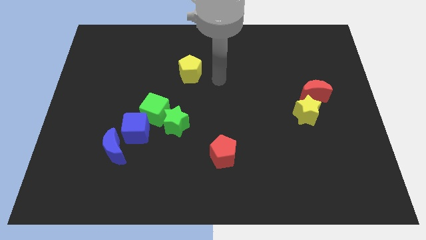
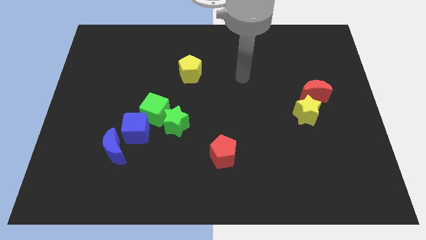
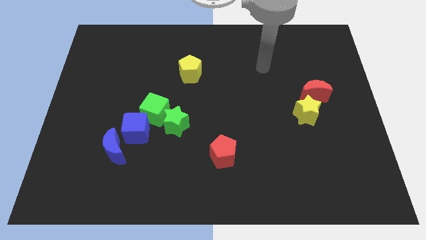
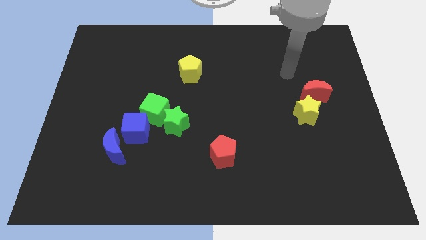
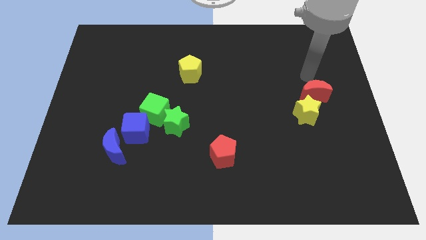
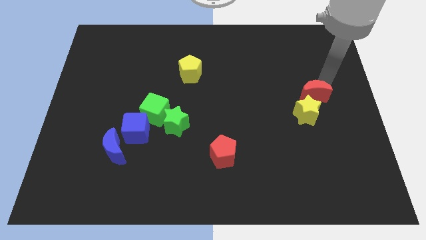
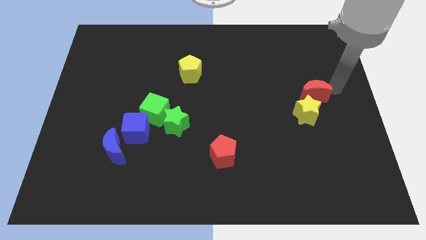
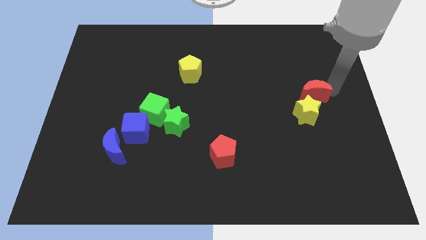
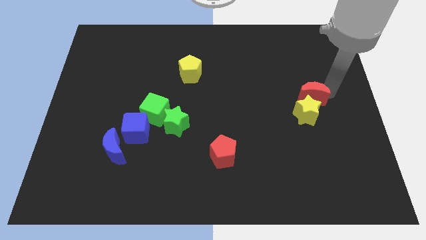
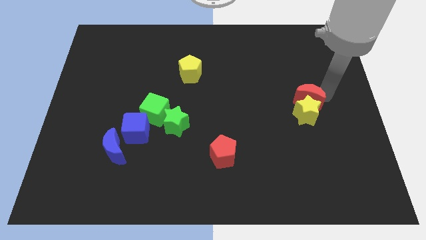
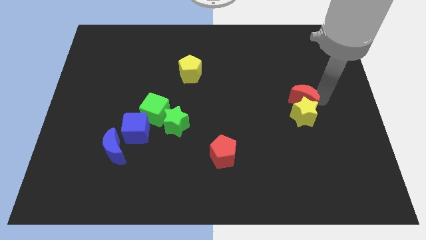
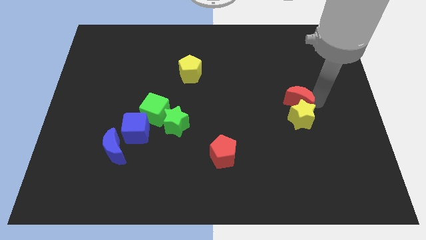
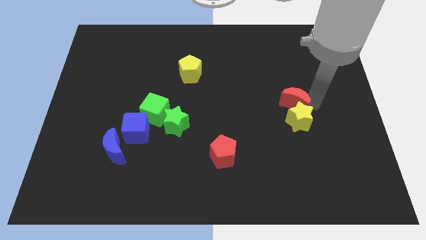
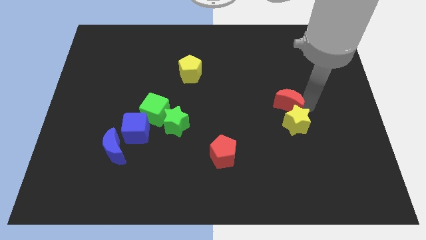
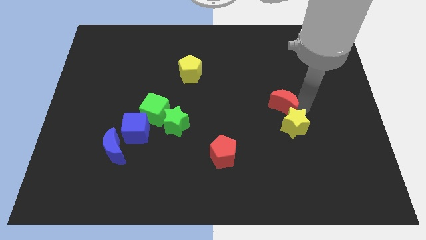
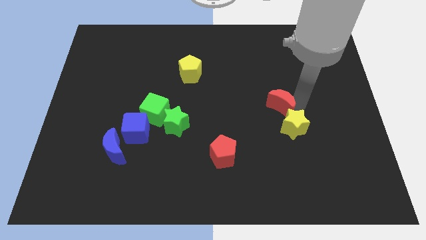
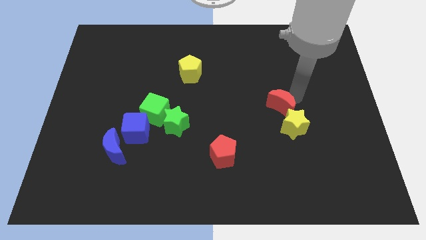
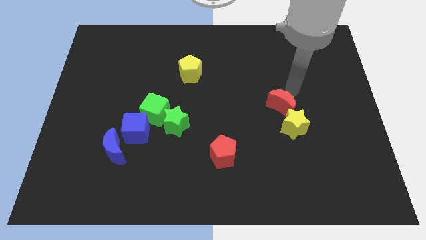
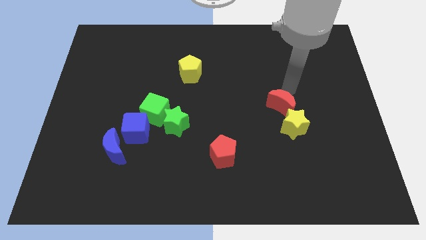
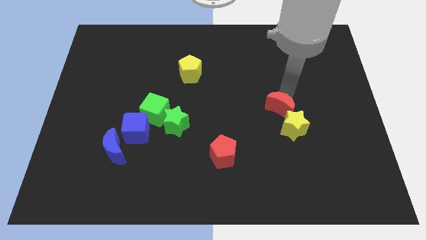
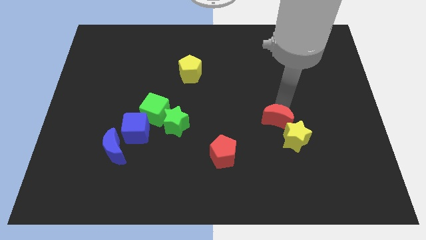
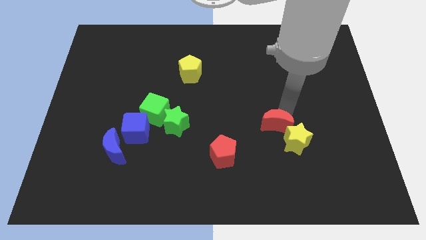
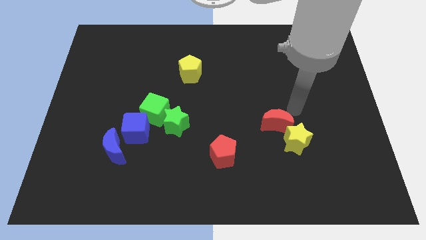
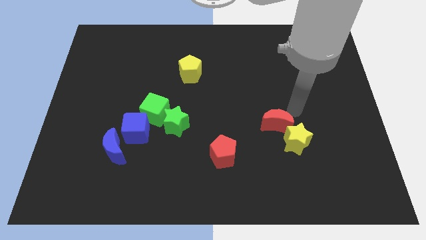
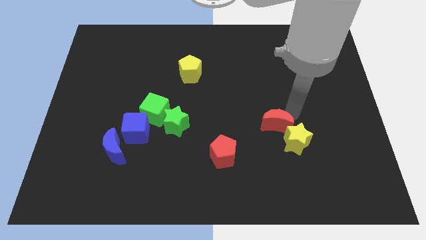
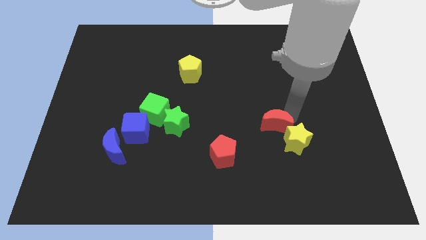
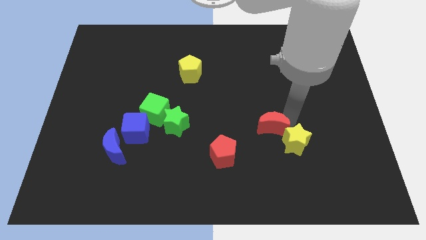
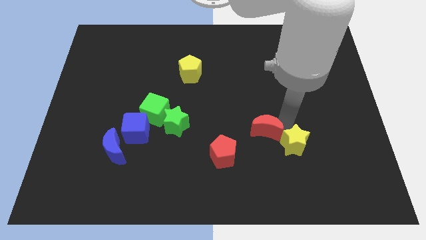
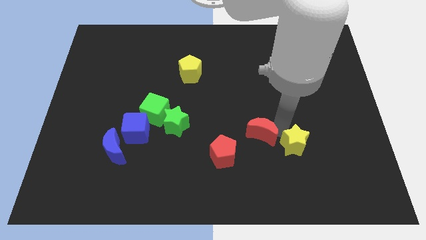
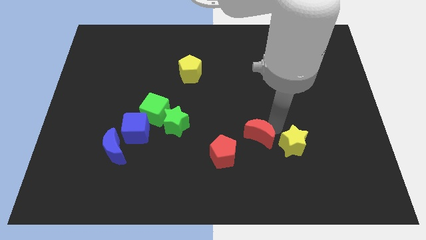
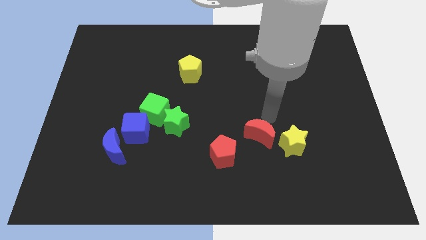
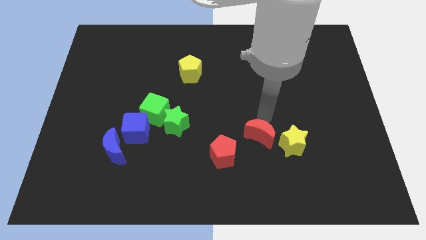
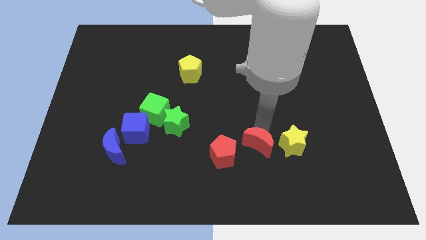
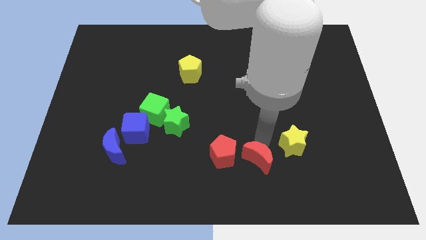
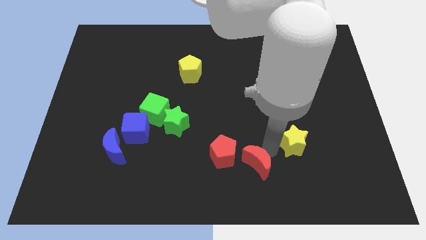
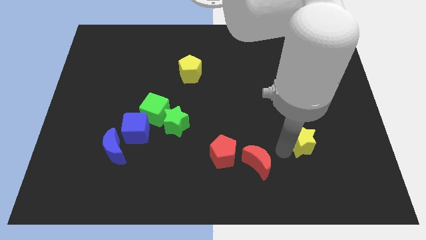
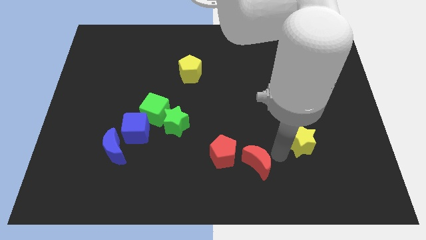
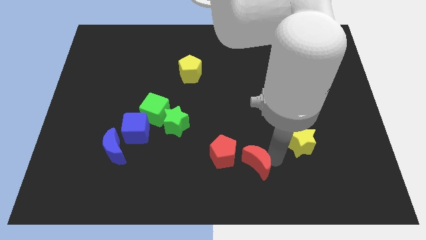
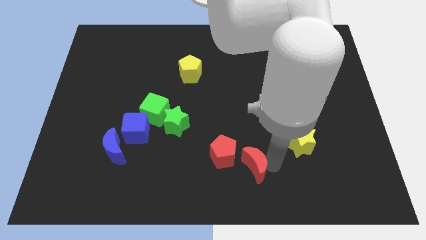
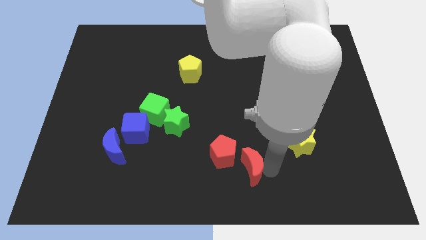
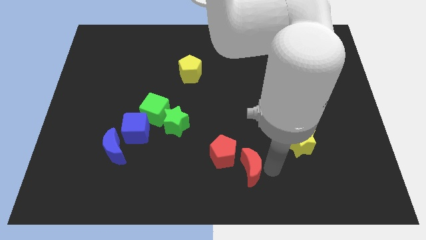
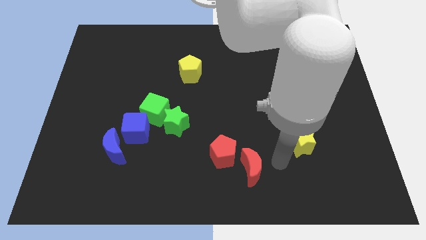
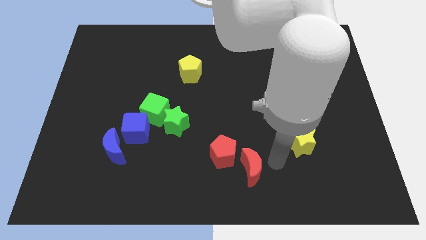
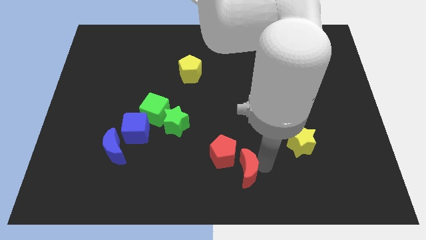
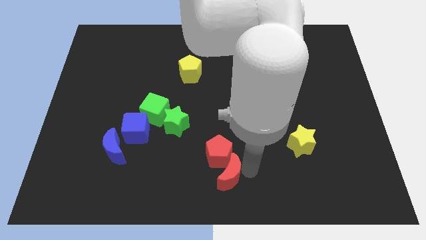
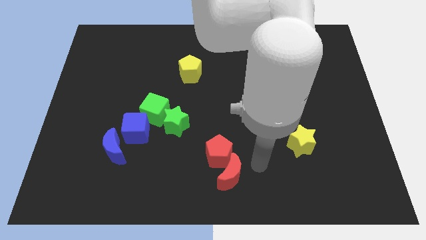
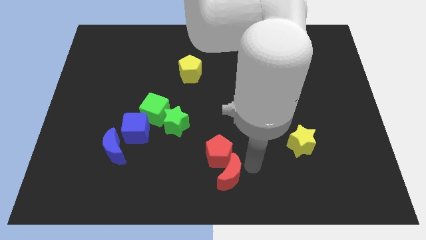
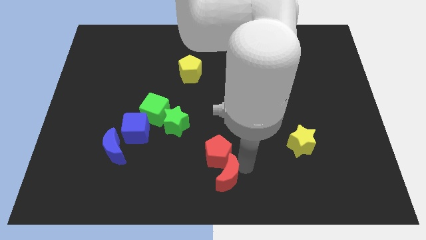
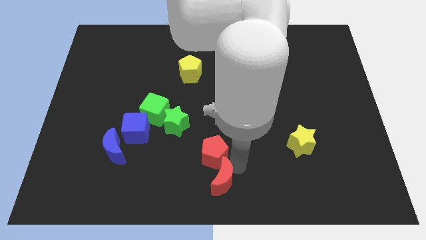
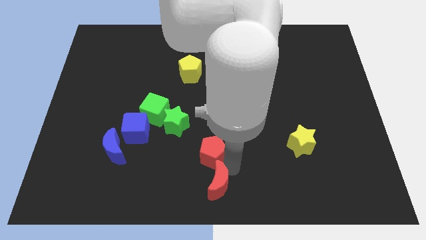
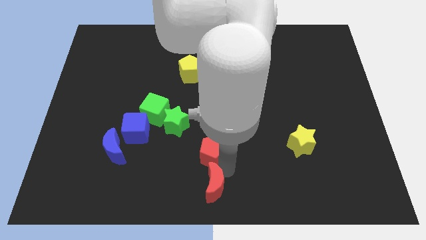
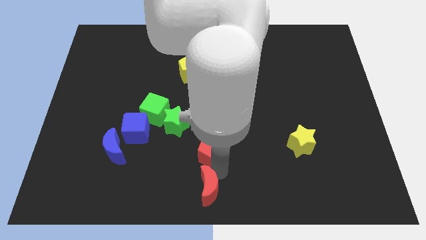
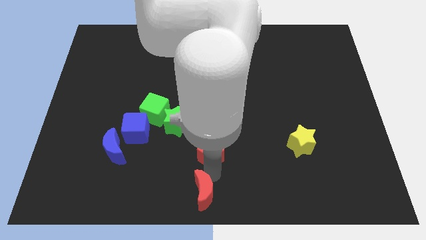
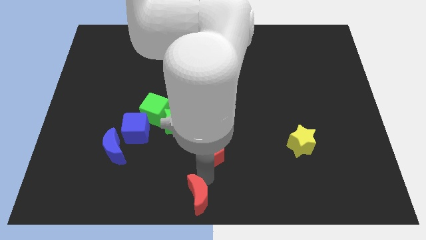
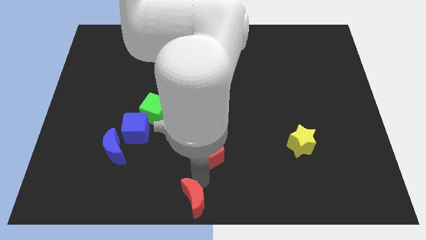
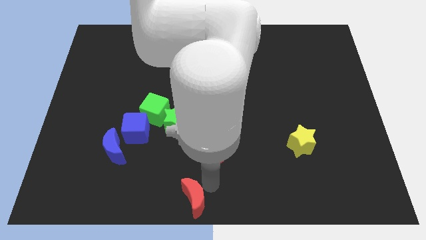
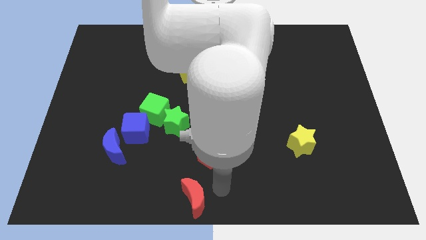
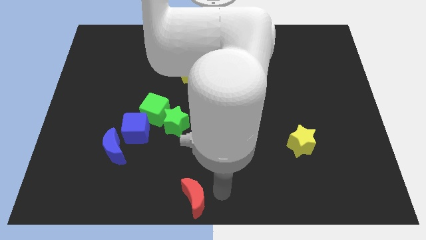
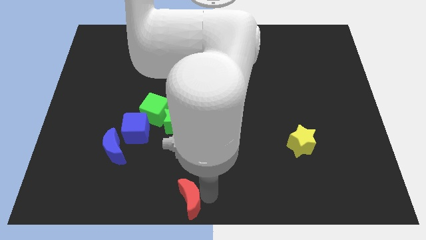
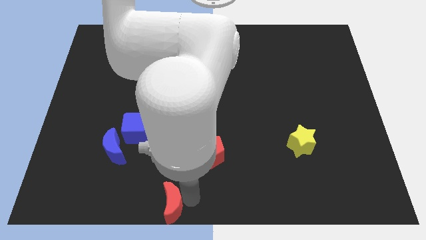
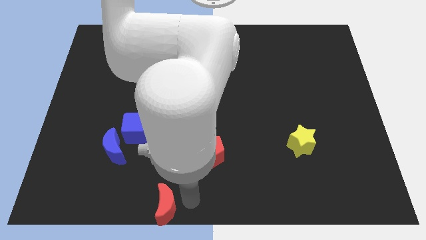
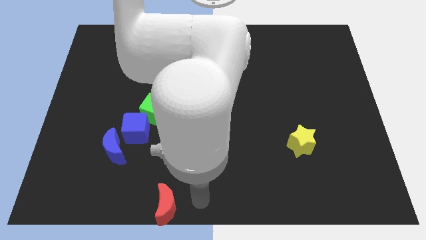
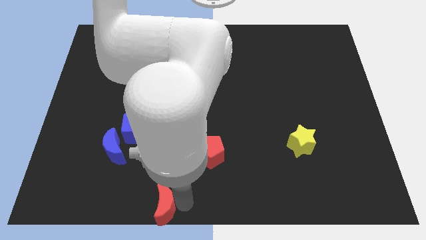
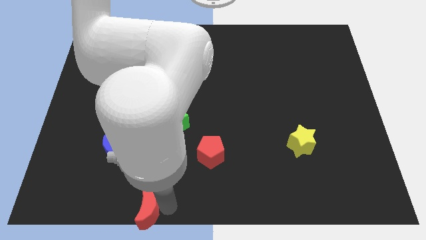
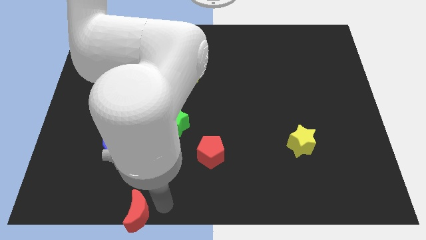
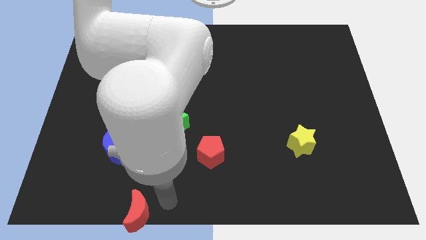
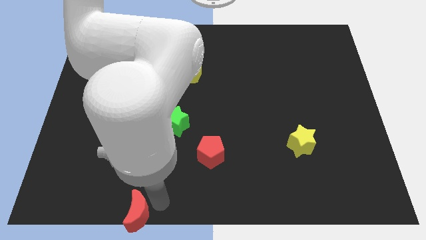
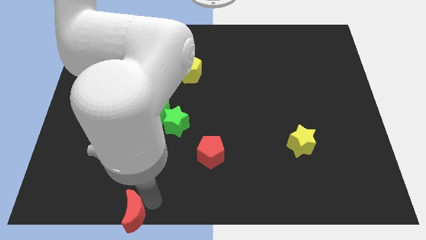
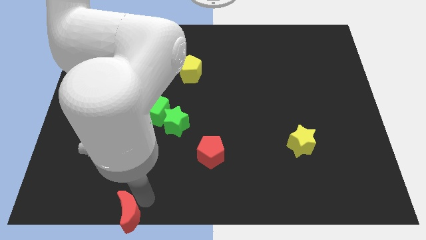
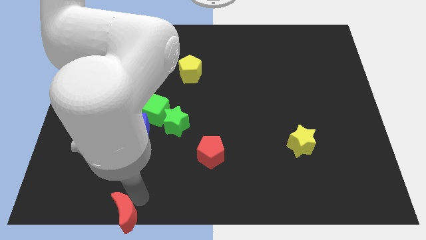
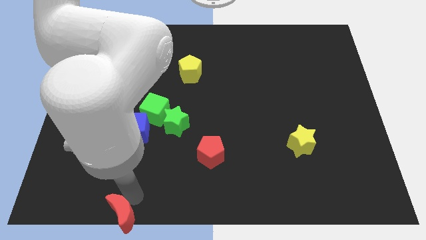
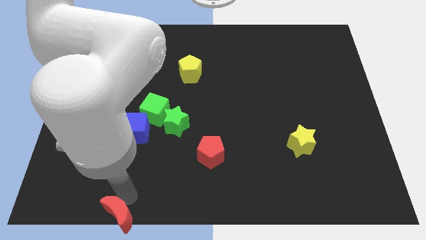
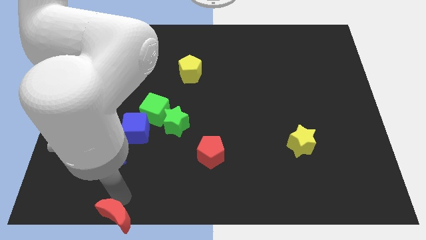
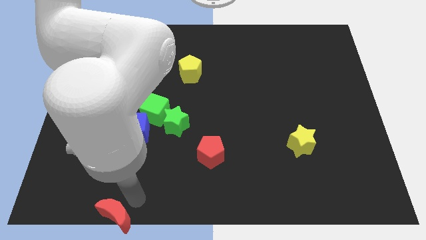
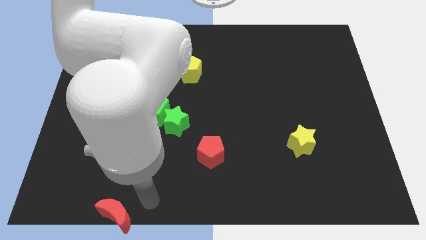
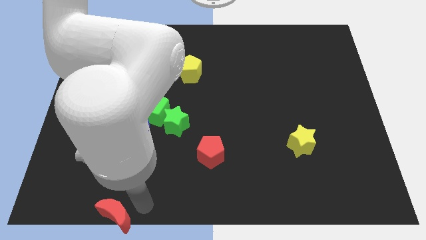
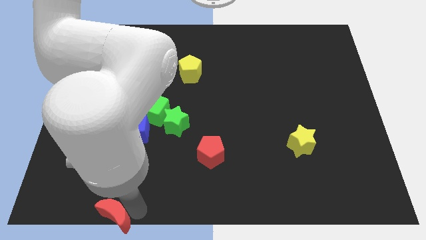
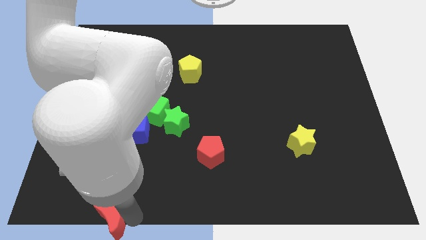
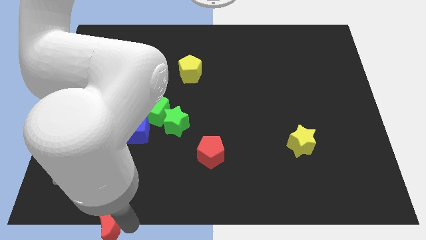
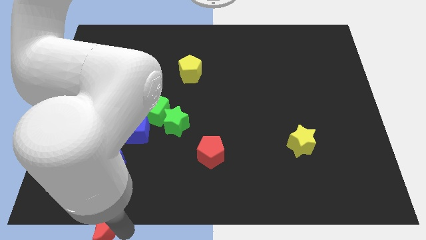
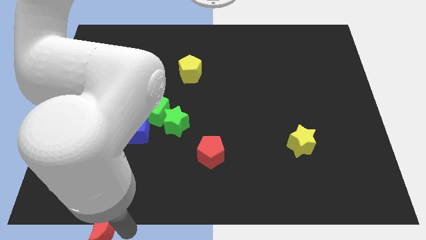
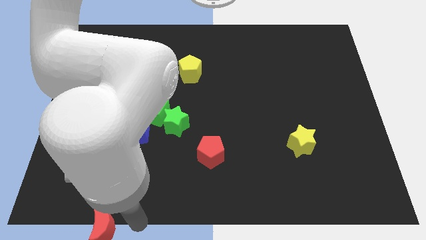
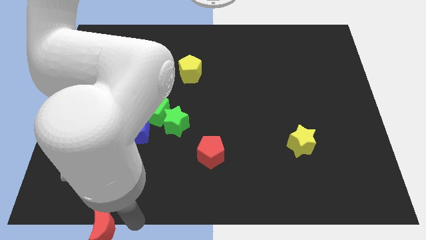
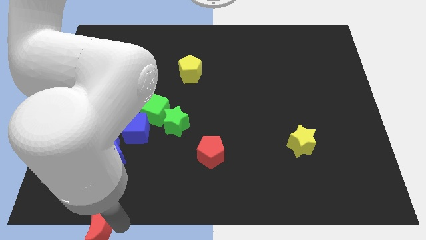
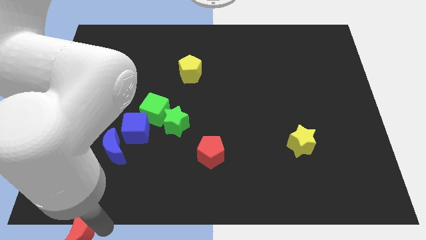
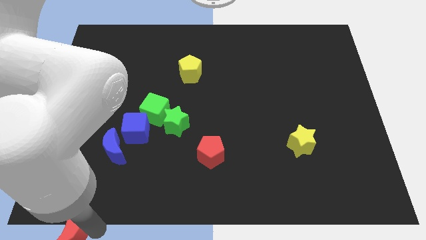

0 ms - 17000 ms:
move the red moon to the lower left corner
